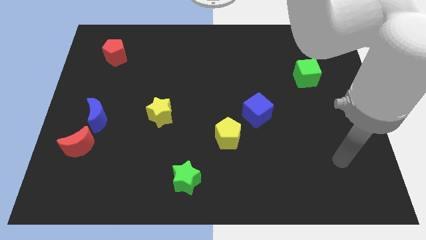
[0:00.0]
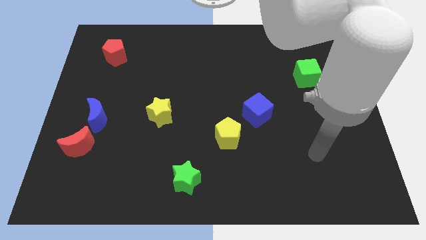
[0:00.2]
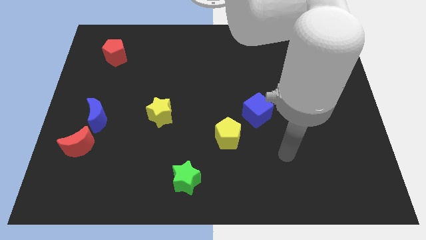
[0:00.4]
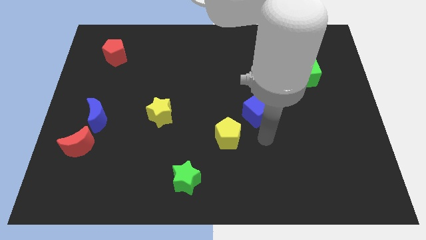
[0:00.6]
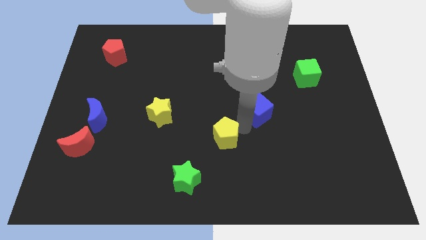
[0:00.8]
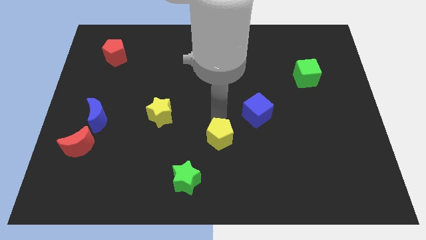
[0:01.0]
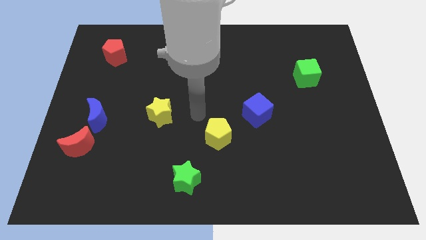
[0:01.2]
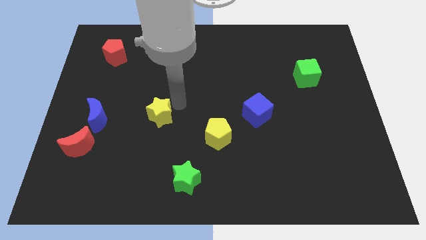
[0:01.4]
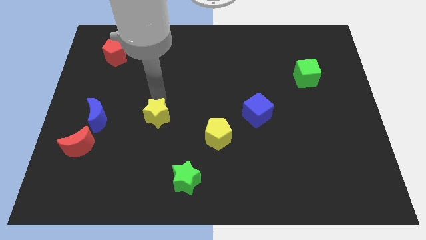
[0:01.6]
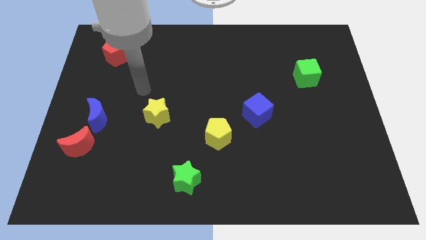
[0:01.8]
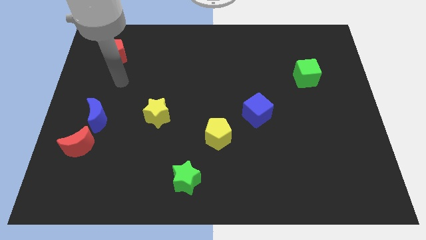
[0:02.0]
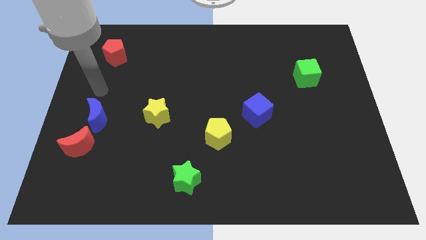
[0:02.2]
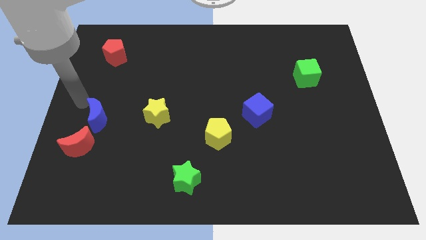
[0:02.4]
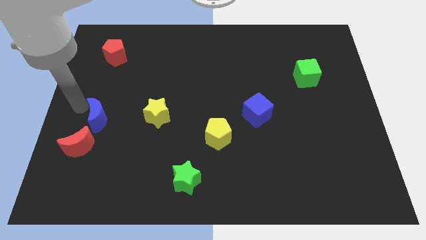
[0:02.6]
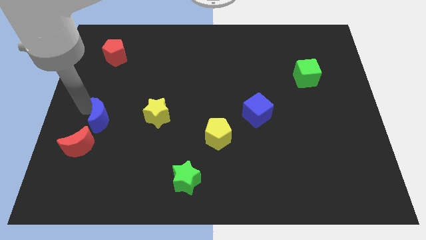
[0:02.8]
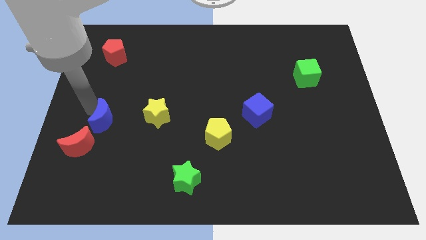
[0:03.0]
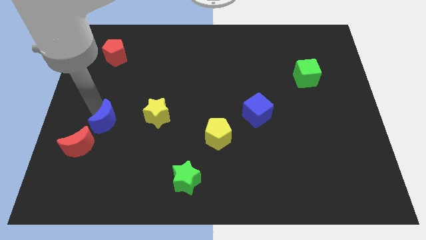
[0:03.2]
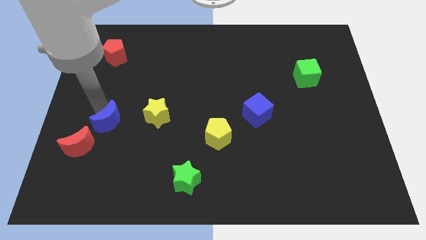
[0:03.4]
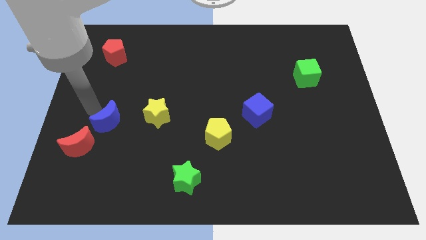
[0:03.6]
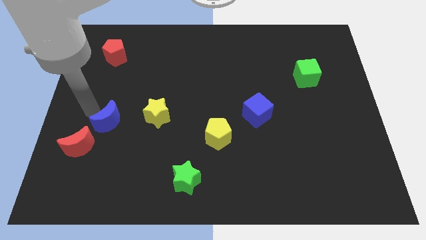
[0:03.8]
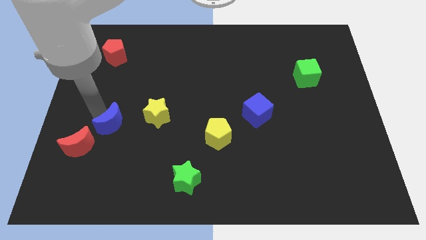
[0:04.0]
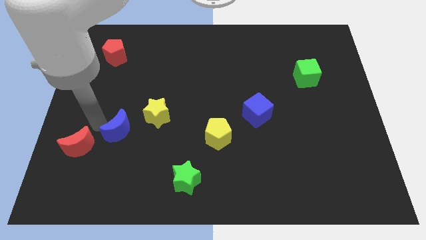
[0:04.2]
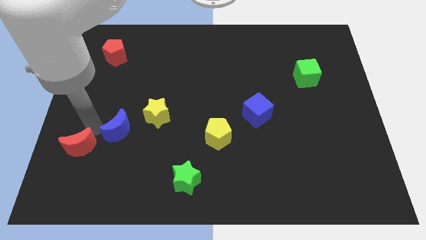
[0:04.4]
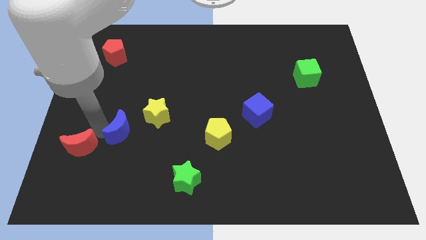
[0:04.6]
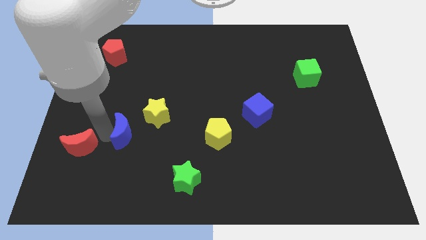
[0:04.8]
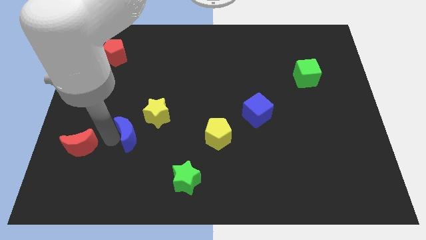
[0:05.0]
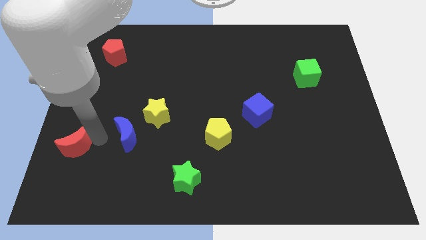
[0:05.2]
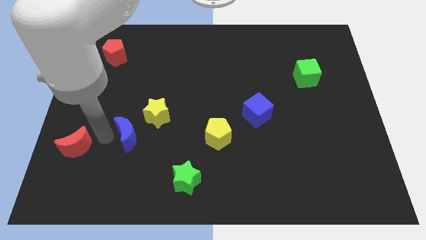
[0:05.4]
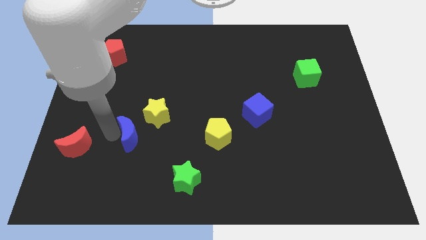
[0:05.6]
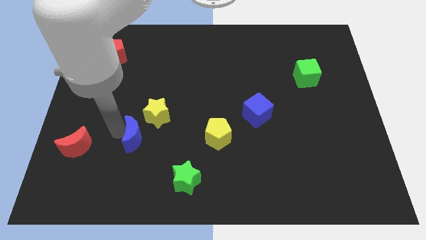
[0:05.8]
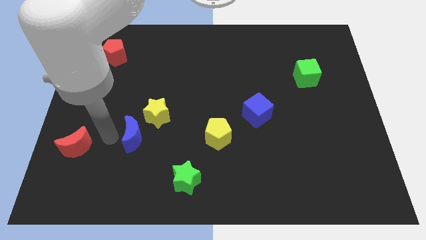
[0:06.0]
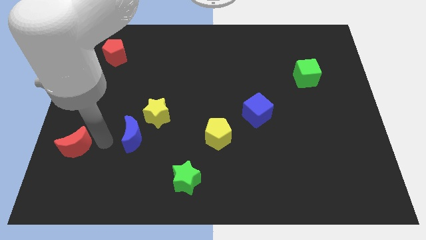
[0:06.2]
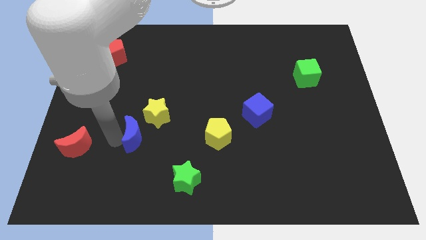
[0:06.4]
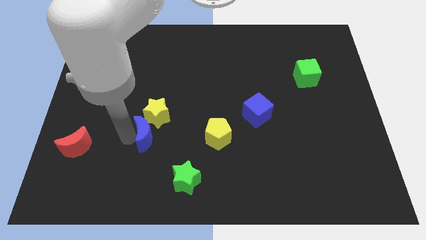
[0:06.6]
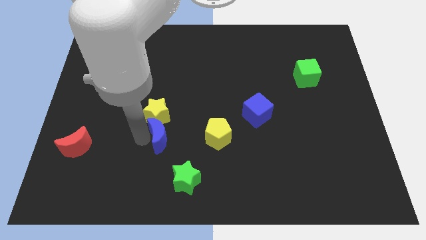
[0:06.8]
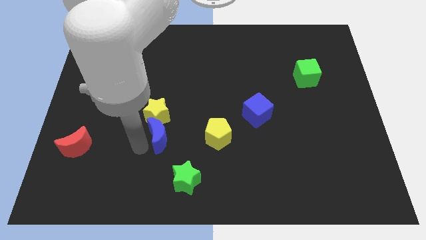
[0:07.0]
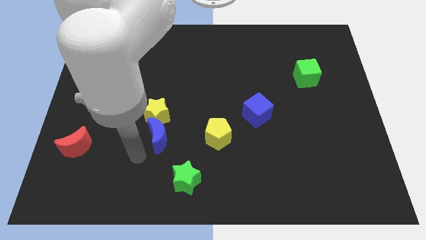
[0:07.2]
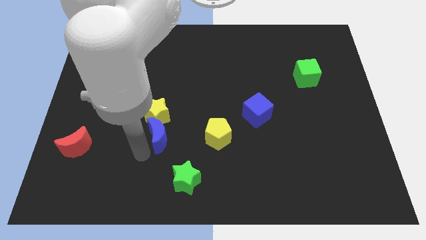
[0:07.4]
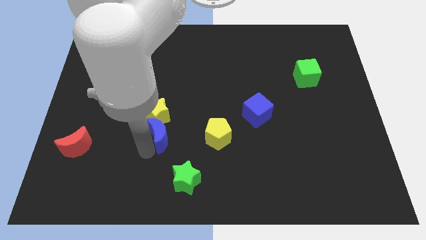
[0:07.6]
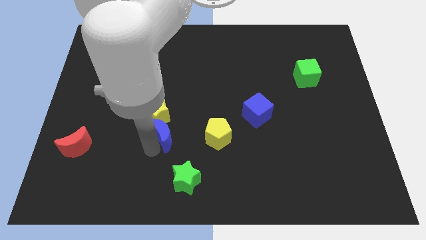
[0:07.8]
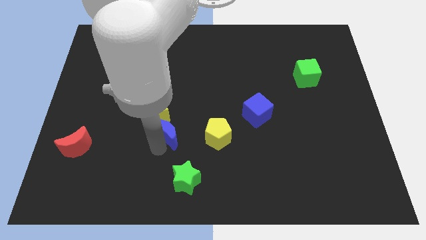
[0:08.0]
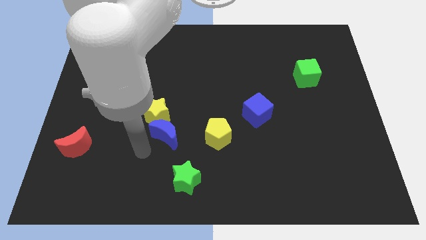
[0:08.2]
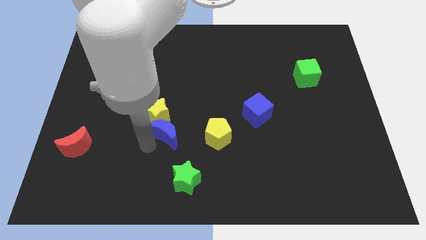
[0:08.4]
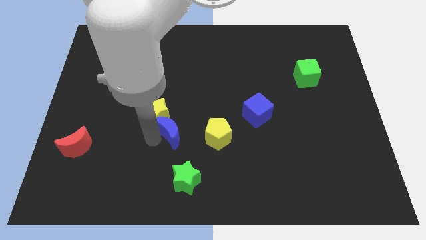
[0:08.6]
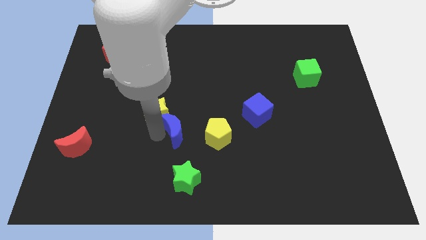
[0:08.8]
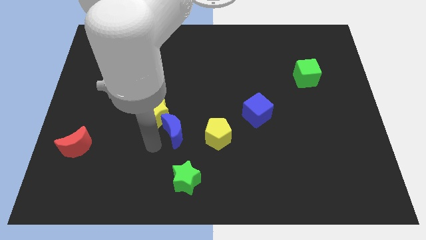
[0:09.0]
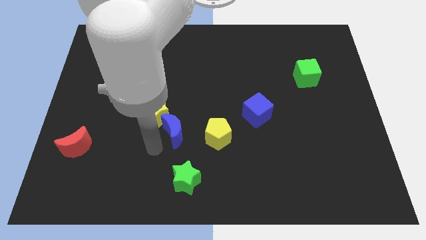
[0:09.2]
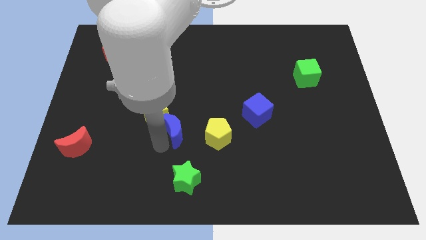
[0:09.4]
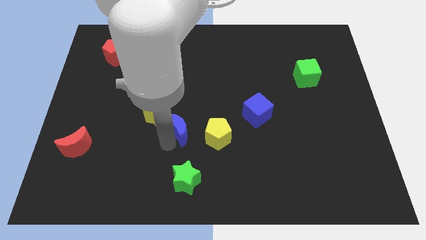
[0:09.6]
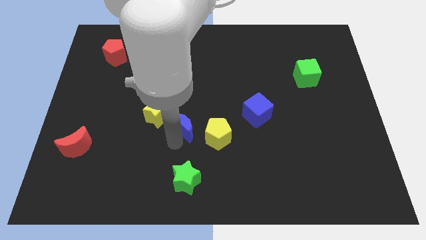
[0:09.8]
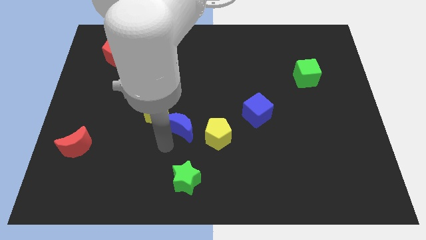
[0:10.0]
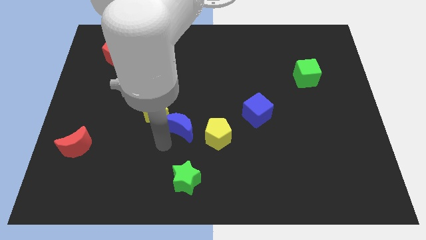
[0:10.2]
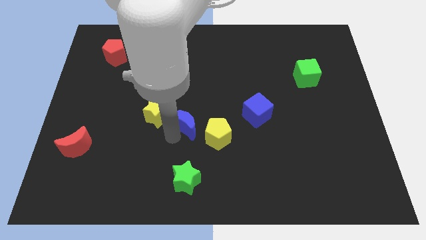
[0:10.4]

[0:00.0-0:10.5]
push the blue moon to the right

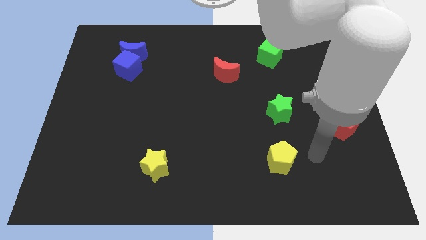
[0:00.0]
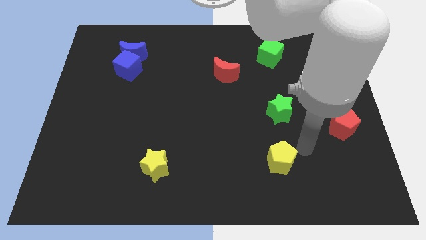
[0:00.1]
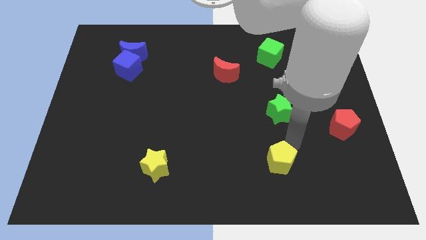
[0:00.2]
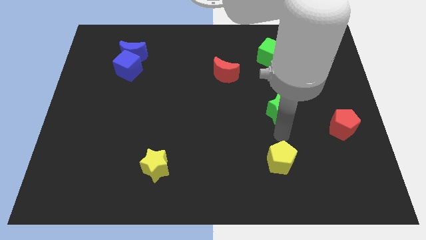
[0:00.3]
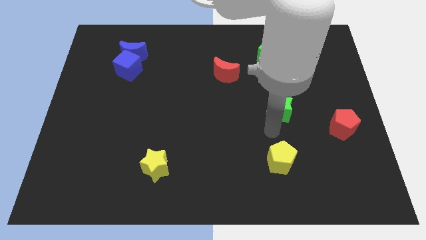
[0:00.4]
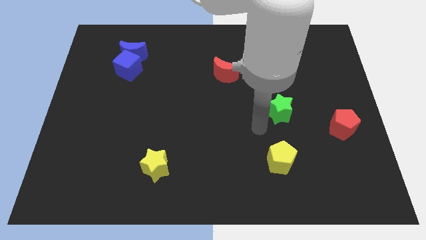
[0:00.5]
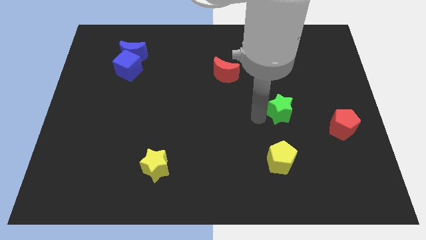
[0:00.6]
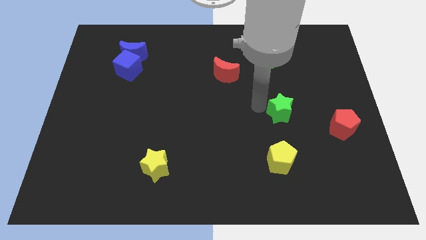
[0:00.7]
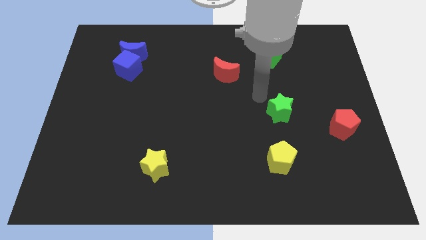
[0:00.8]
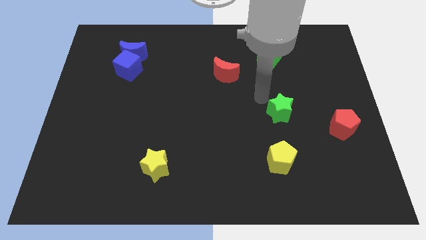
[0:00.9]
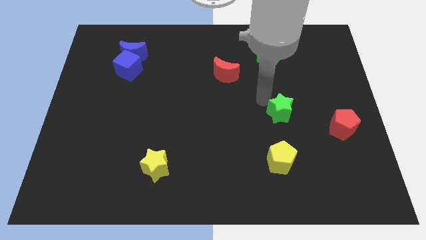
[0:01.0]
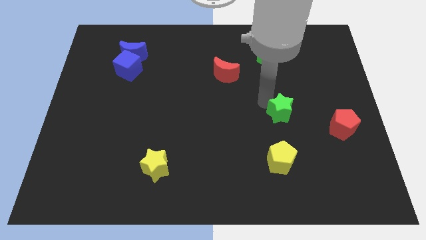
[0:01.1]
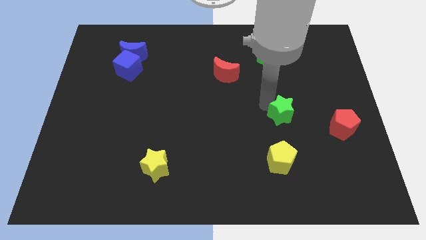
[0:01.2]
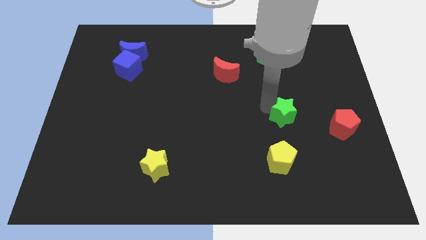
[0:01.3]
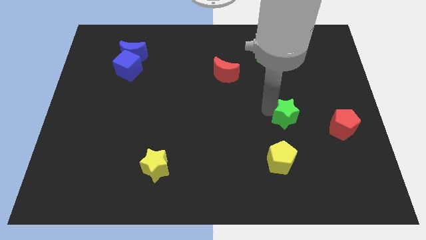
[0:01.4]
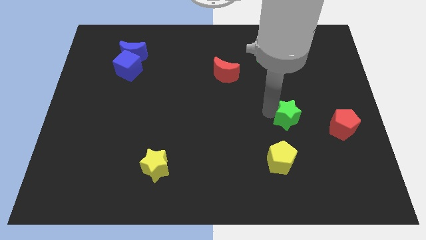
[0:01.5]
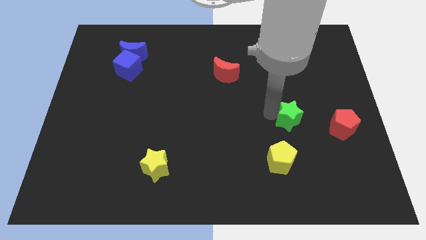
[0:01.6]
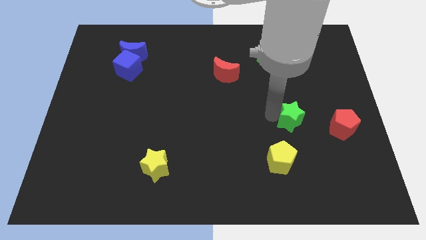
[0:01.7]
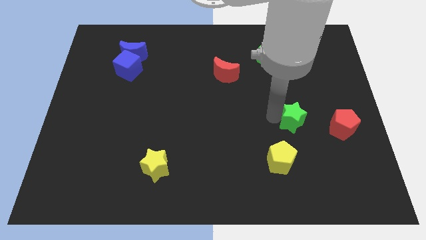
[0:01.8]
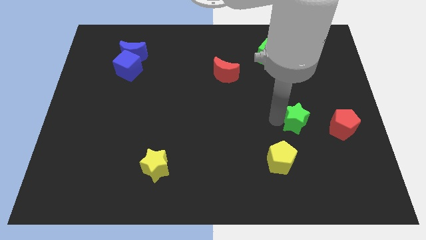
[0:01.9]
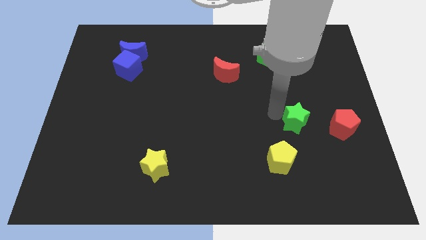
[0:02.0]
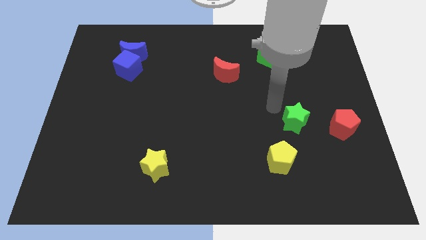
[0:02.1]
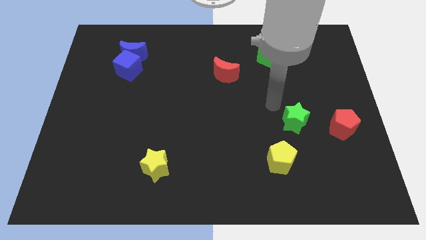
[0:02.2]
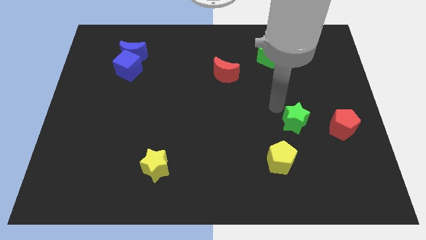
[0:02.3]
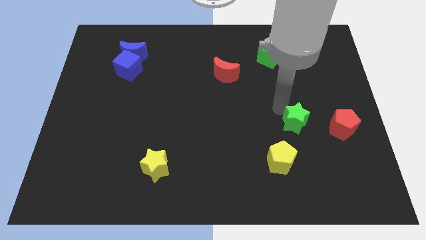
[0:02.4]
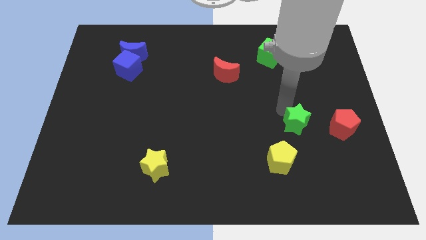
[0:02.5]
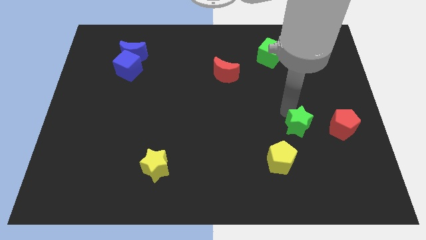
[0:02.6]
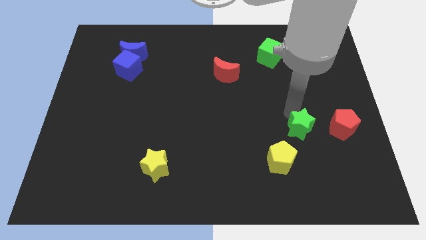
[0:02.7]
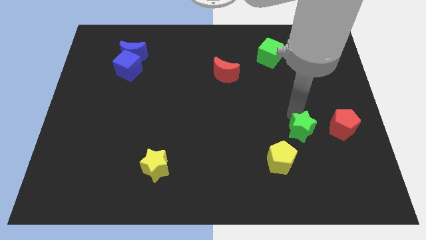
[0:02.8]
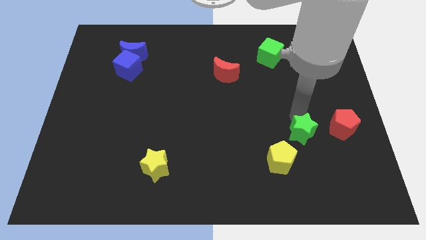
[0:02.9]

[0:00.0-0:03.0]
push the green star a little bit diagonally down and right

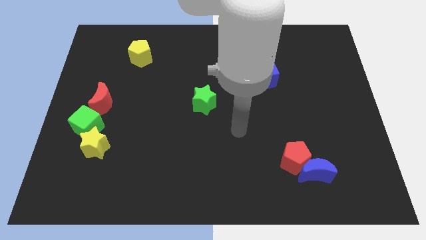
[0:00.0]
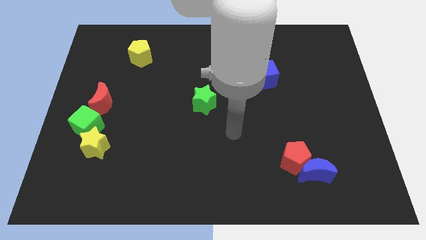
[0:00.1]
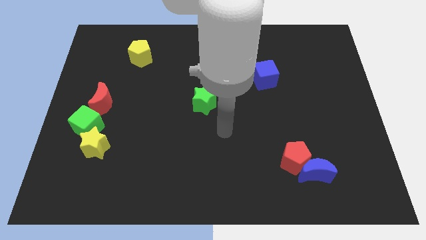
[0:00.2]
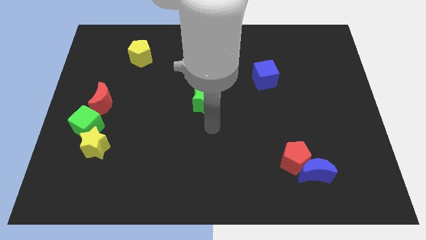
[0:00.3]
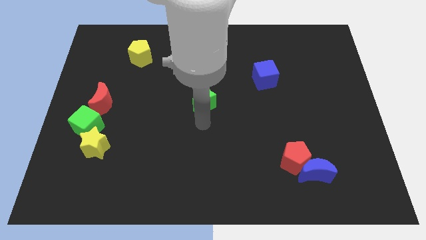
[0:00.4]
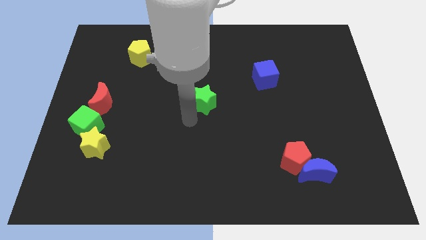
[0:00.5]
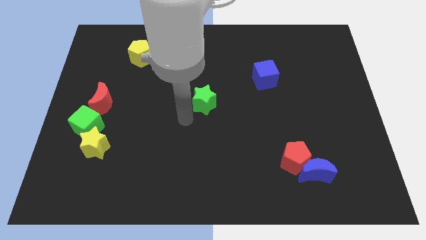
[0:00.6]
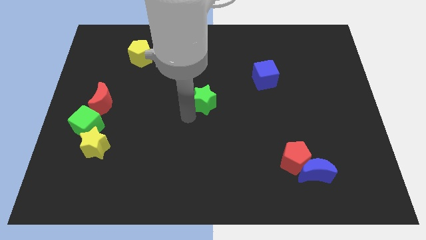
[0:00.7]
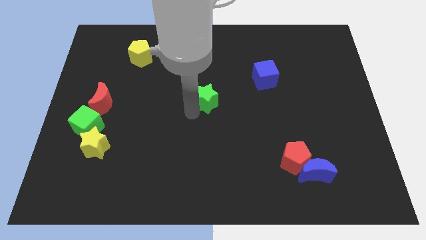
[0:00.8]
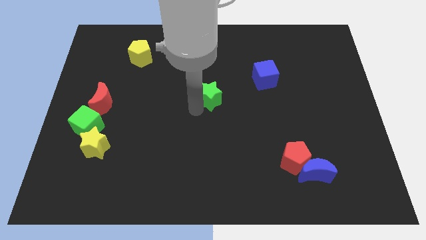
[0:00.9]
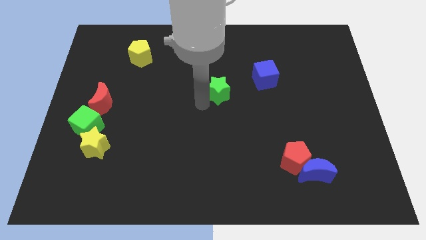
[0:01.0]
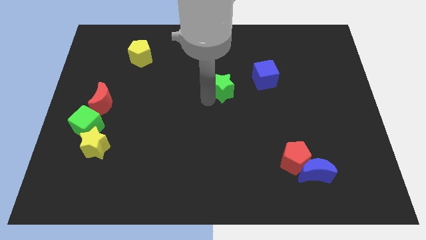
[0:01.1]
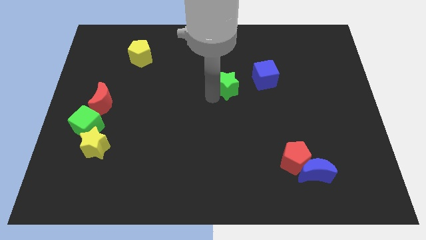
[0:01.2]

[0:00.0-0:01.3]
slide the green star slightly diagonally upwards and to the right
